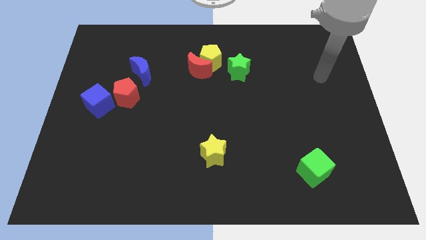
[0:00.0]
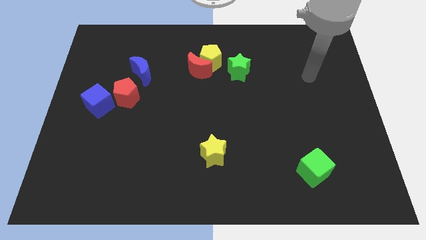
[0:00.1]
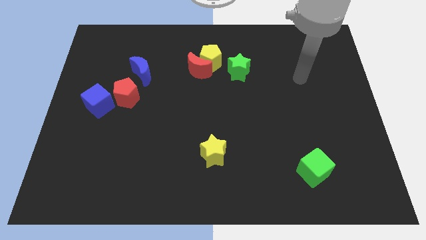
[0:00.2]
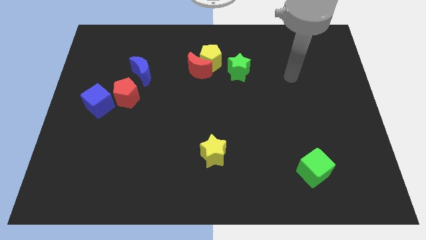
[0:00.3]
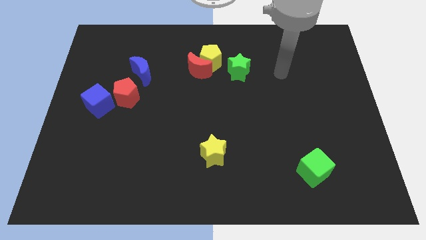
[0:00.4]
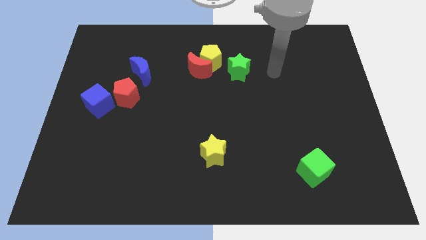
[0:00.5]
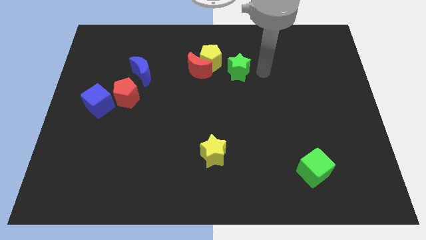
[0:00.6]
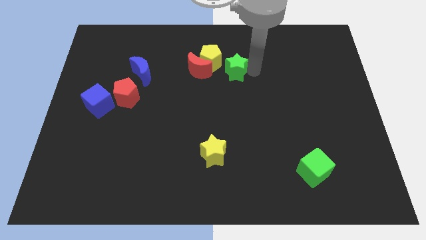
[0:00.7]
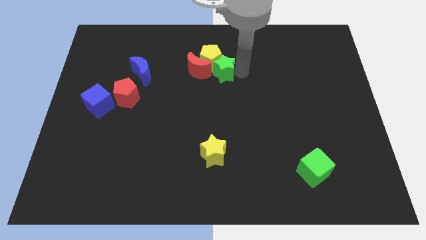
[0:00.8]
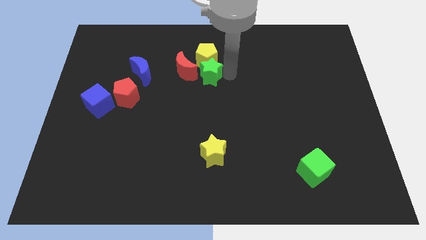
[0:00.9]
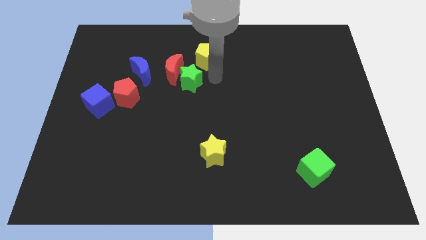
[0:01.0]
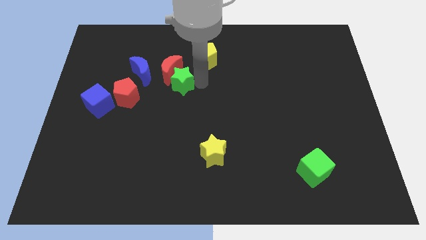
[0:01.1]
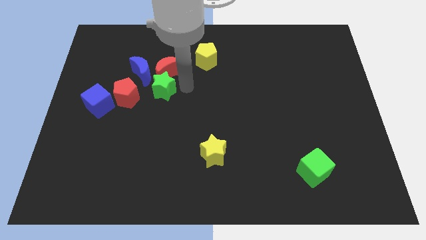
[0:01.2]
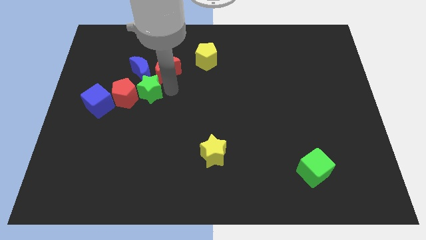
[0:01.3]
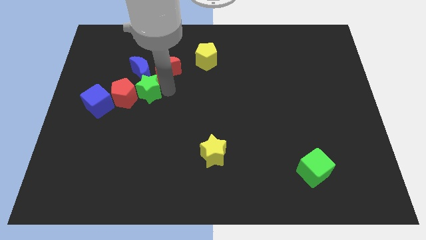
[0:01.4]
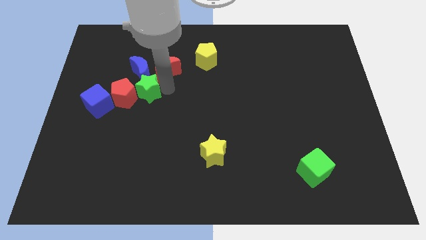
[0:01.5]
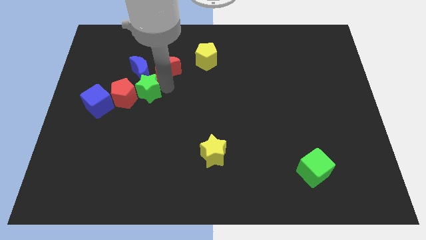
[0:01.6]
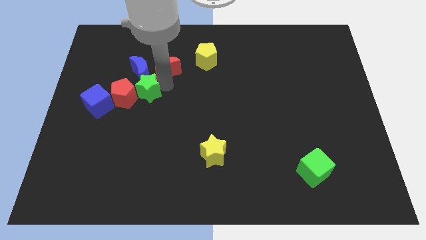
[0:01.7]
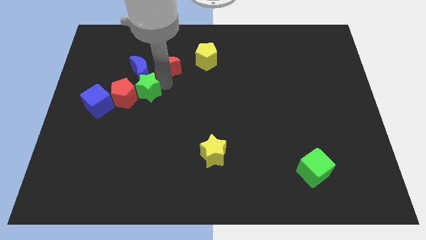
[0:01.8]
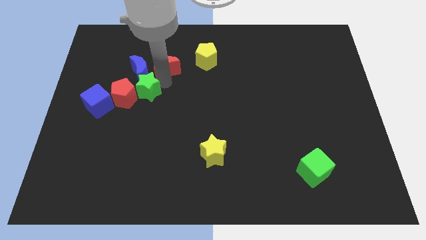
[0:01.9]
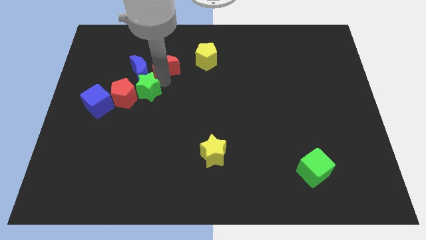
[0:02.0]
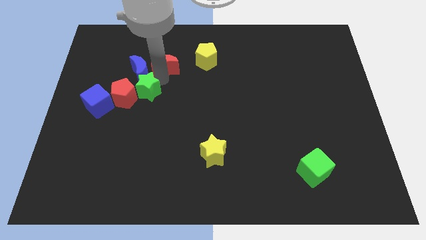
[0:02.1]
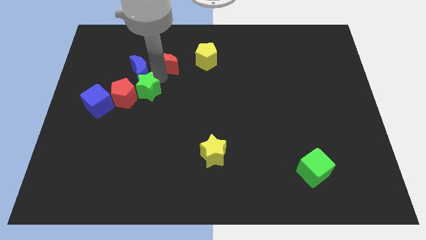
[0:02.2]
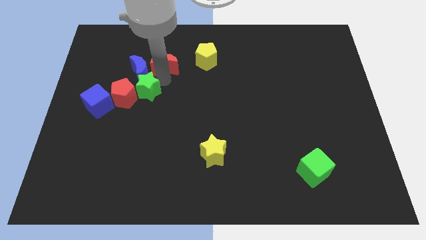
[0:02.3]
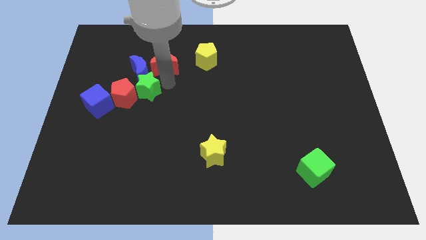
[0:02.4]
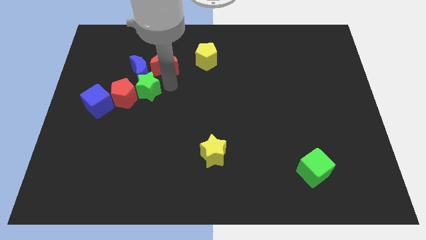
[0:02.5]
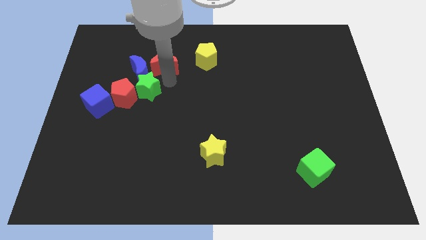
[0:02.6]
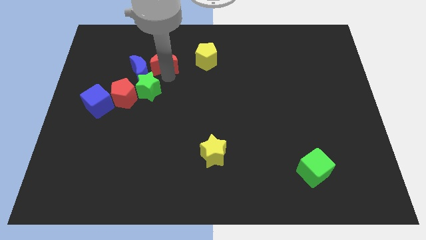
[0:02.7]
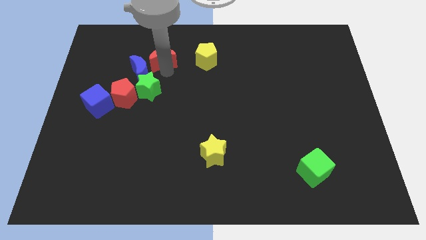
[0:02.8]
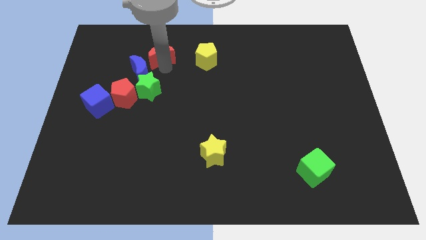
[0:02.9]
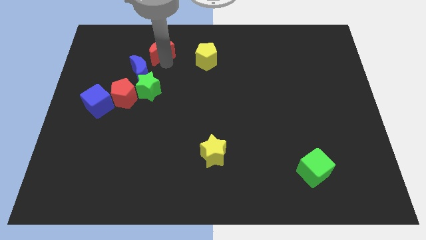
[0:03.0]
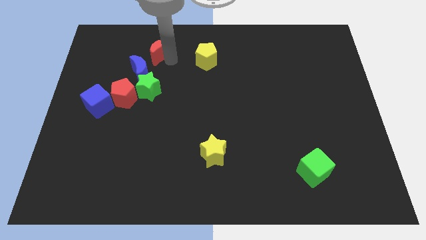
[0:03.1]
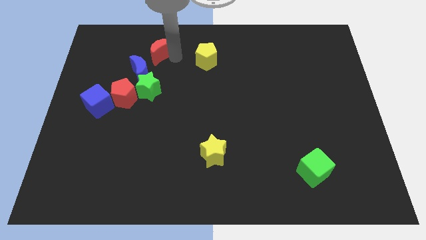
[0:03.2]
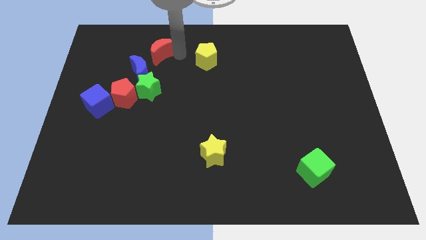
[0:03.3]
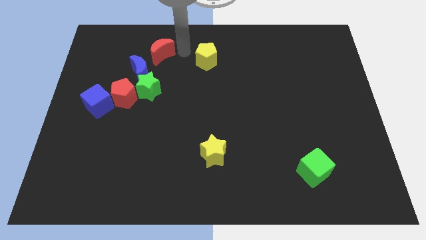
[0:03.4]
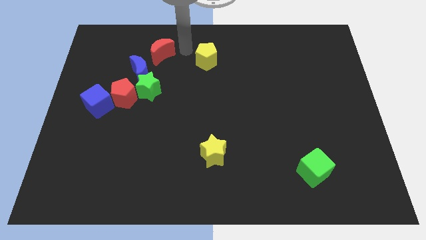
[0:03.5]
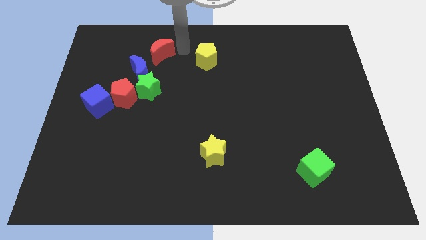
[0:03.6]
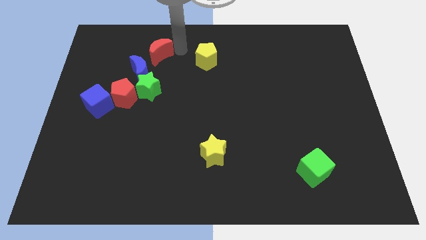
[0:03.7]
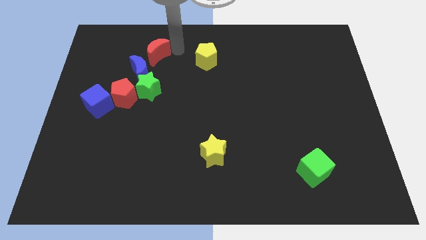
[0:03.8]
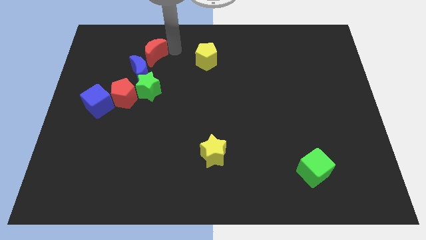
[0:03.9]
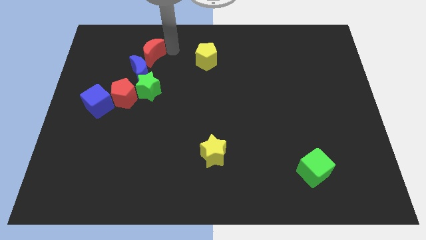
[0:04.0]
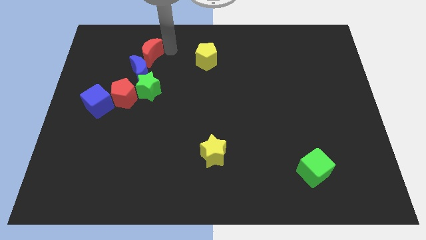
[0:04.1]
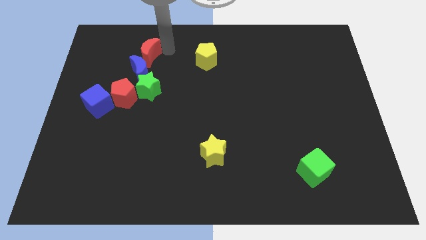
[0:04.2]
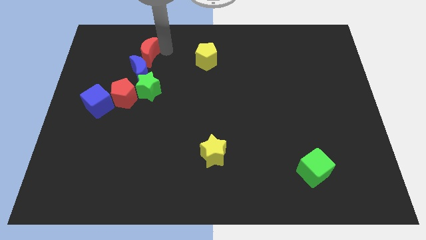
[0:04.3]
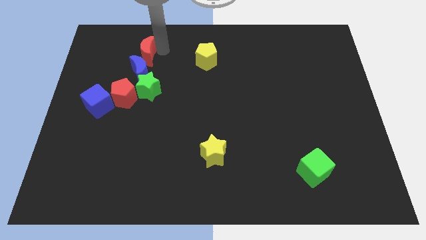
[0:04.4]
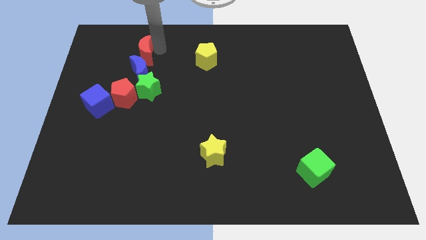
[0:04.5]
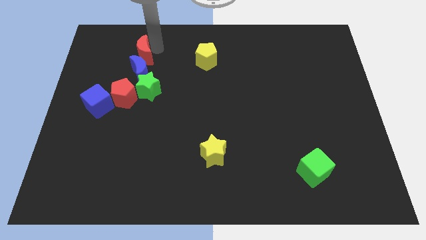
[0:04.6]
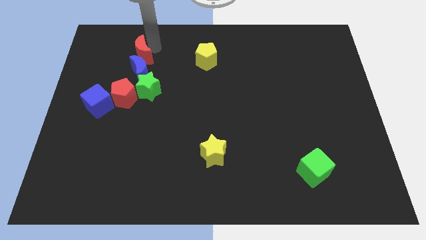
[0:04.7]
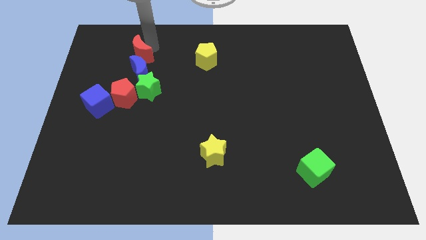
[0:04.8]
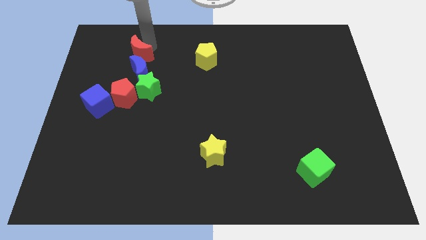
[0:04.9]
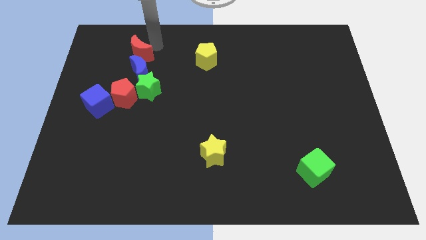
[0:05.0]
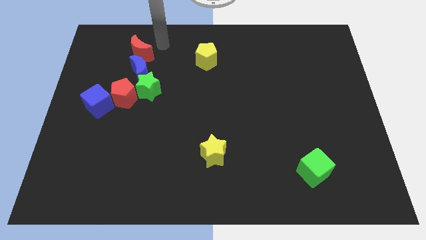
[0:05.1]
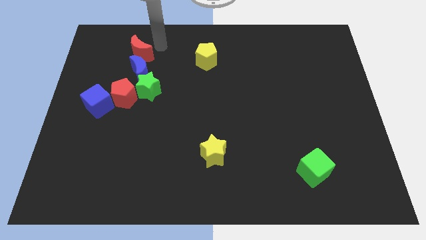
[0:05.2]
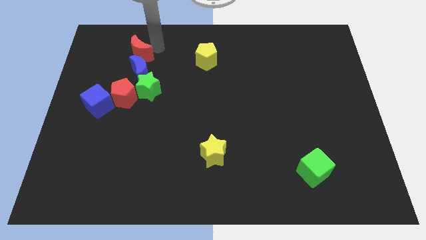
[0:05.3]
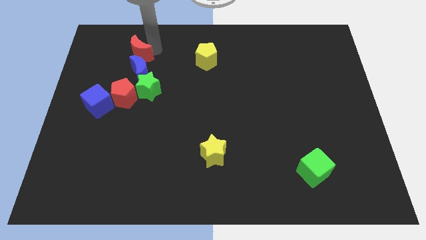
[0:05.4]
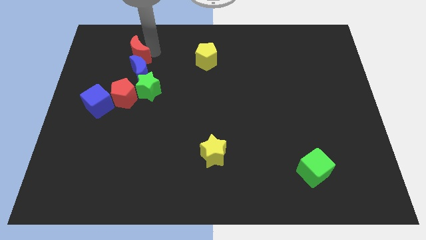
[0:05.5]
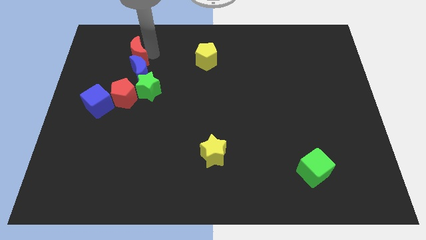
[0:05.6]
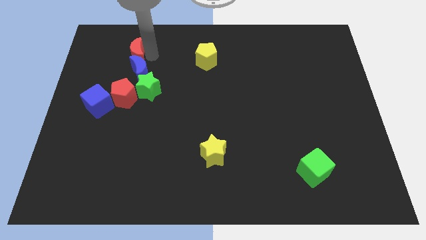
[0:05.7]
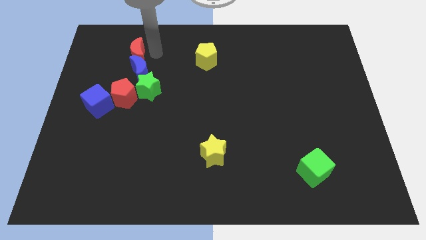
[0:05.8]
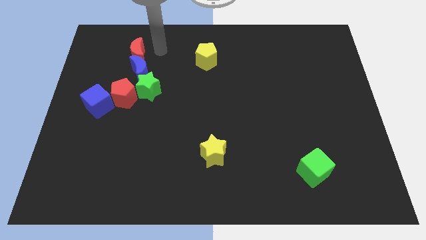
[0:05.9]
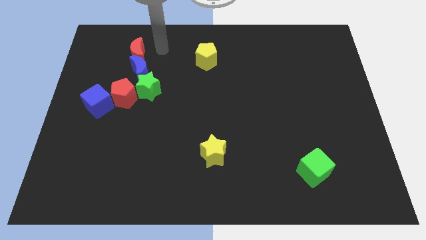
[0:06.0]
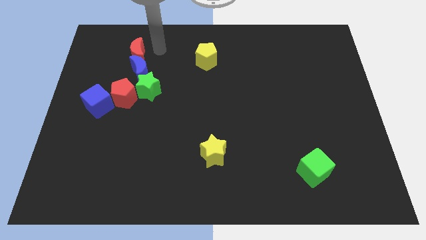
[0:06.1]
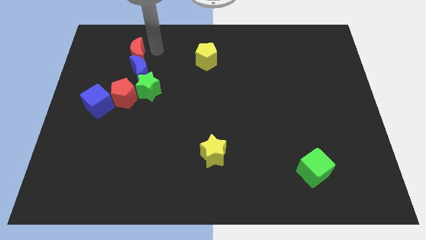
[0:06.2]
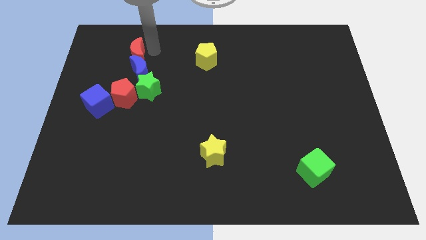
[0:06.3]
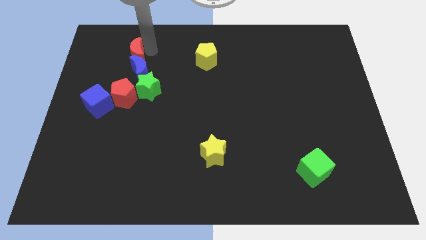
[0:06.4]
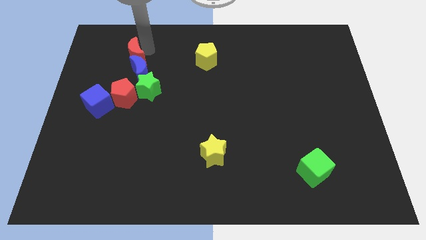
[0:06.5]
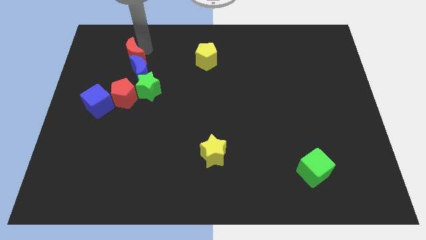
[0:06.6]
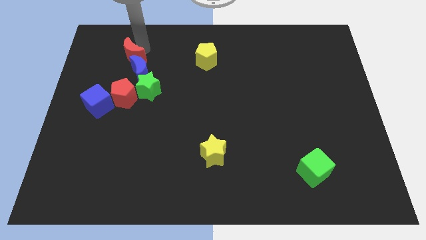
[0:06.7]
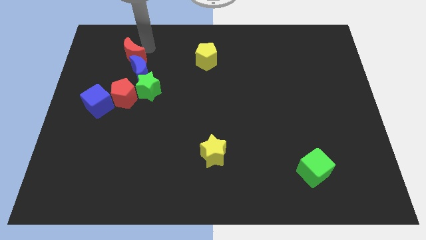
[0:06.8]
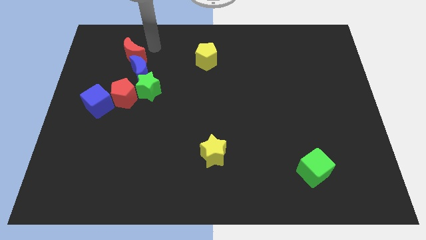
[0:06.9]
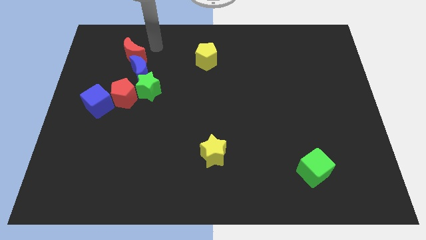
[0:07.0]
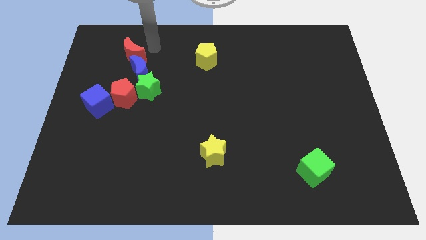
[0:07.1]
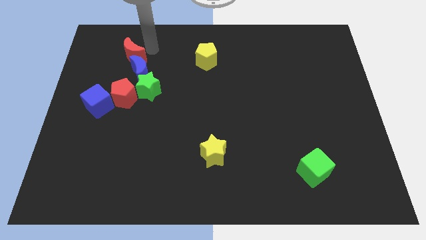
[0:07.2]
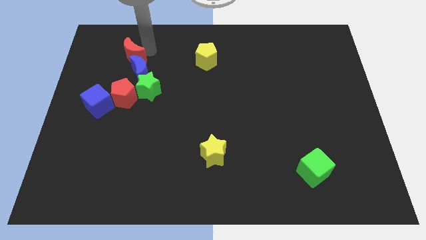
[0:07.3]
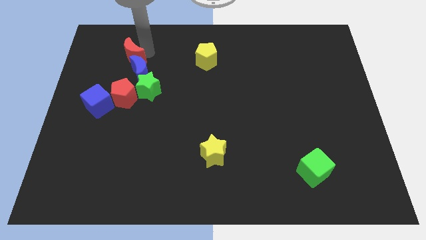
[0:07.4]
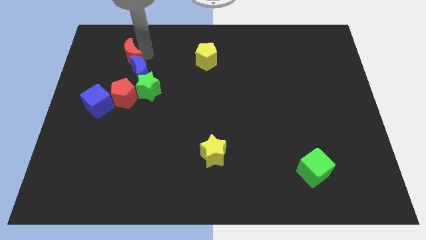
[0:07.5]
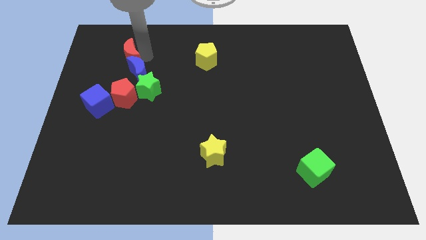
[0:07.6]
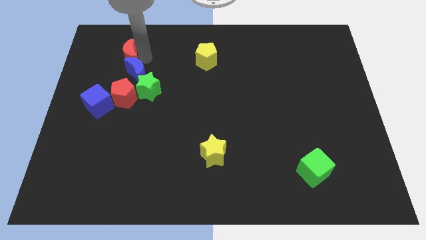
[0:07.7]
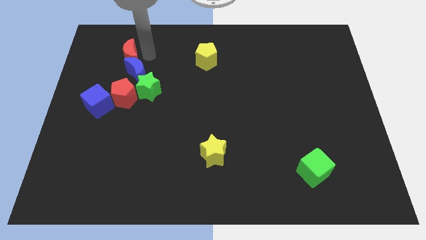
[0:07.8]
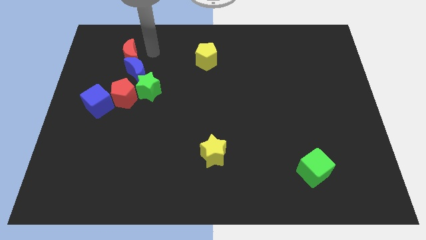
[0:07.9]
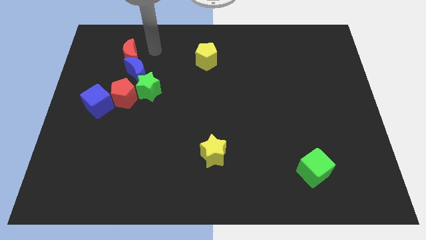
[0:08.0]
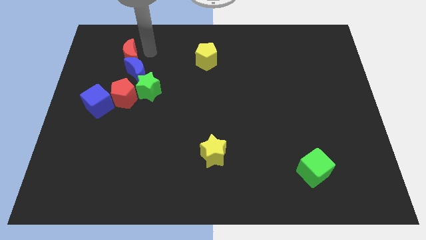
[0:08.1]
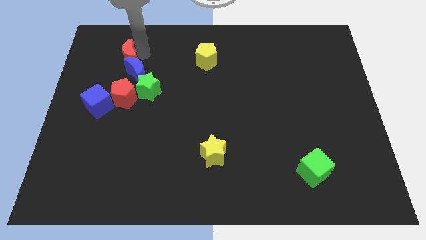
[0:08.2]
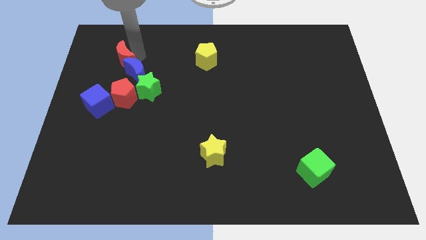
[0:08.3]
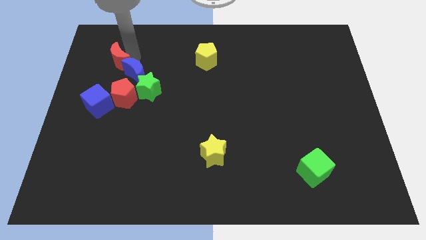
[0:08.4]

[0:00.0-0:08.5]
put the red moon to the left side of the blue moon
